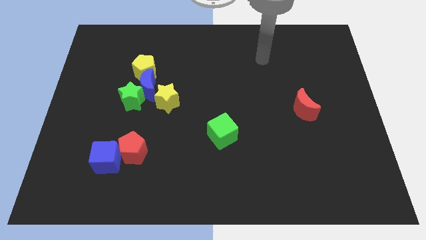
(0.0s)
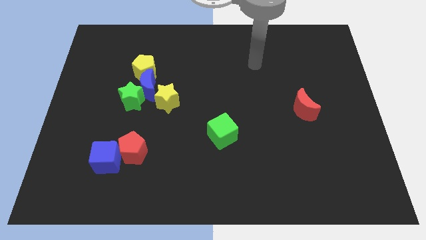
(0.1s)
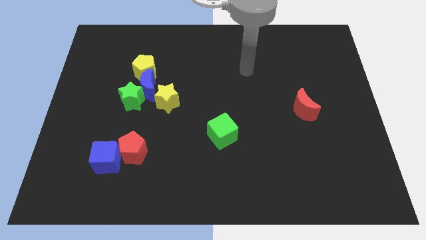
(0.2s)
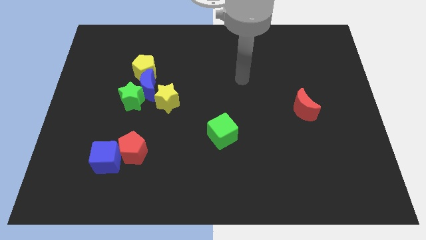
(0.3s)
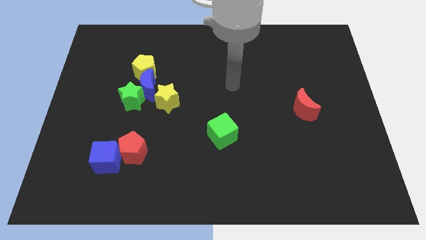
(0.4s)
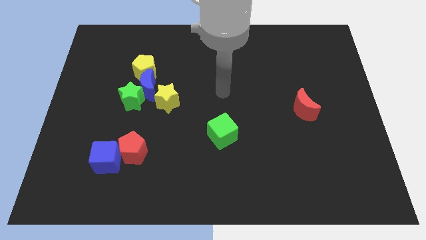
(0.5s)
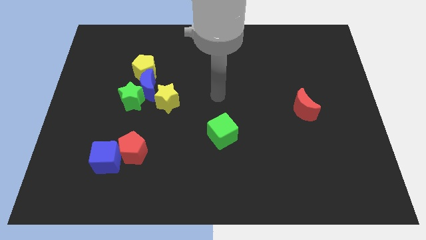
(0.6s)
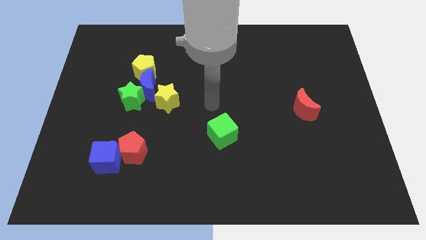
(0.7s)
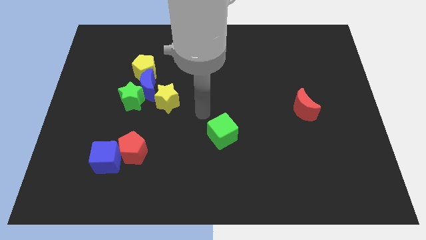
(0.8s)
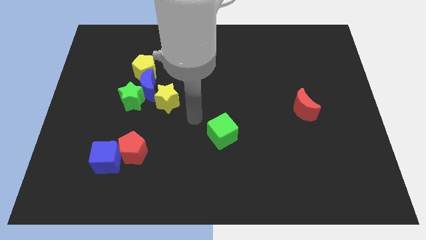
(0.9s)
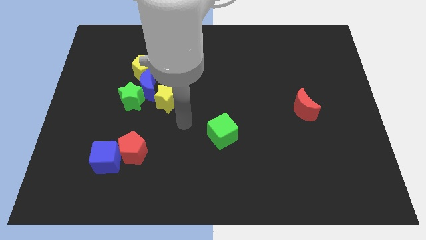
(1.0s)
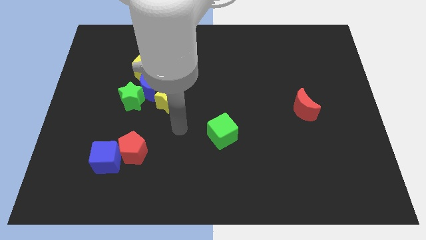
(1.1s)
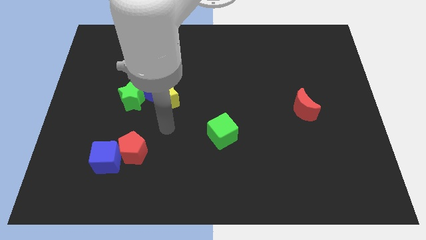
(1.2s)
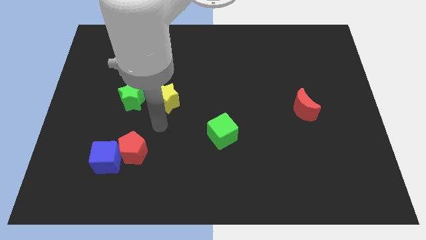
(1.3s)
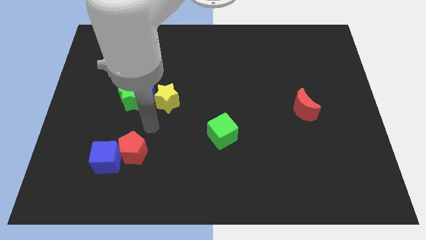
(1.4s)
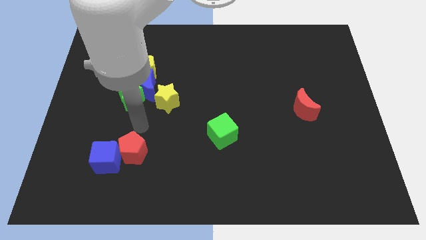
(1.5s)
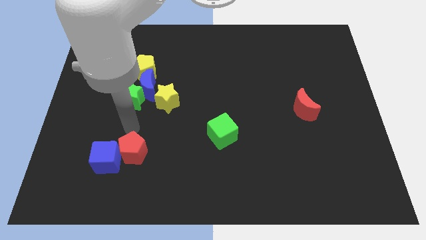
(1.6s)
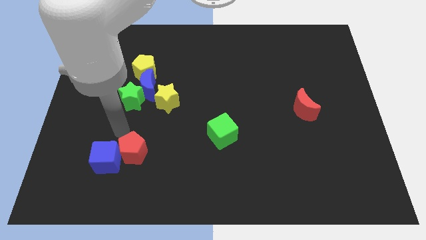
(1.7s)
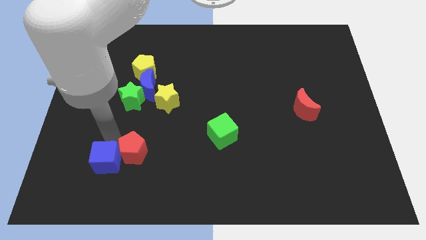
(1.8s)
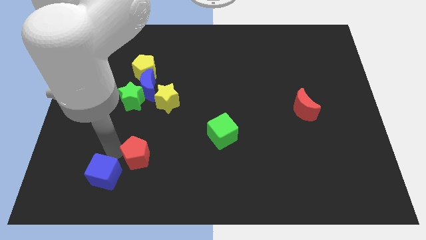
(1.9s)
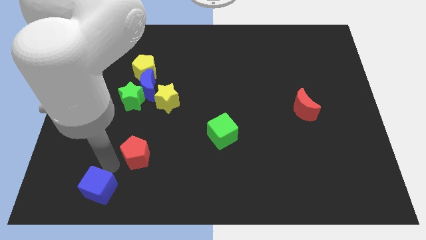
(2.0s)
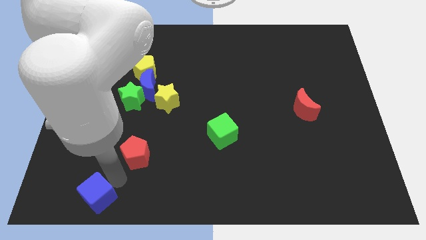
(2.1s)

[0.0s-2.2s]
pull the red pentagon apart from the blue cube

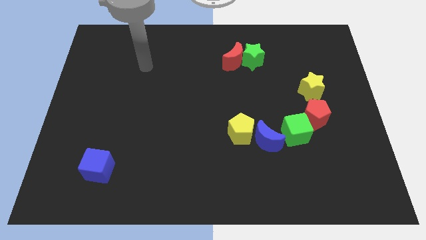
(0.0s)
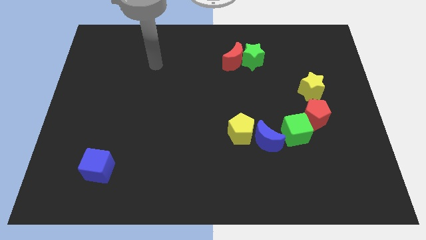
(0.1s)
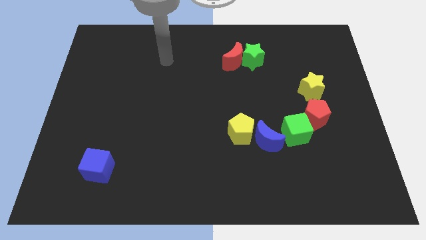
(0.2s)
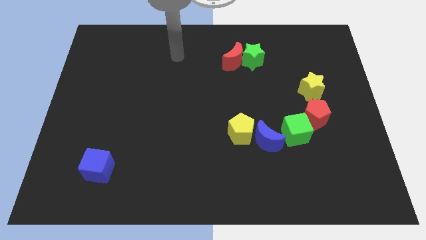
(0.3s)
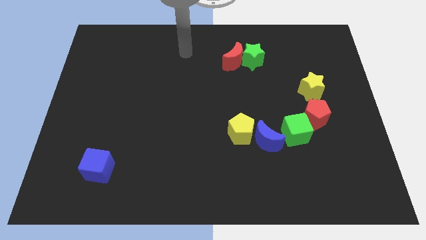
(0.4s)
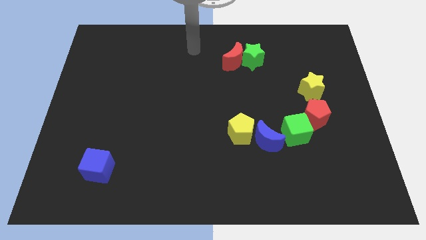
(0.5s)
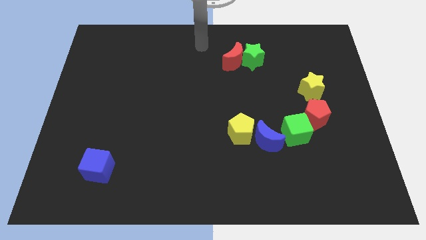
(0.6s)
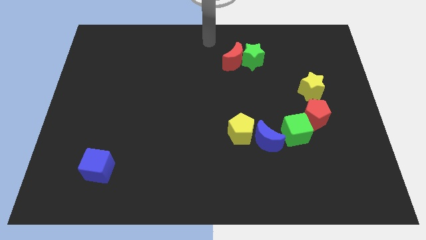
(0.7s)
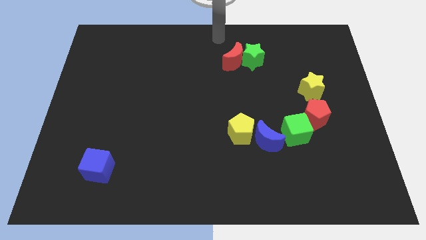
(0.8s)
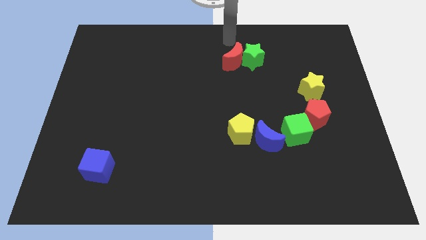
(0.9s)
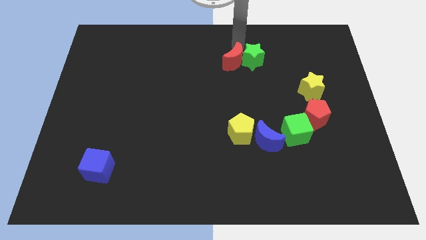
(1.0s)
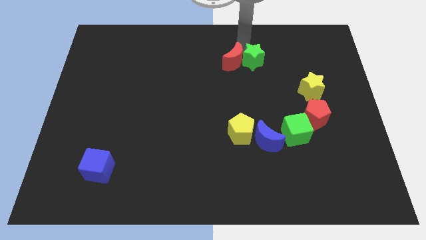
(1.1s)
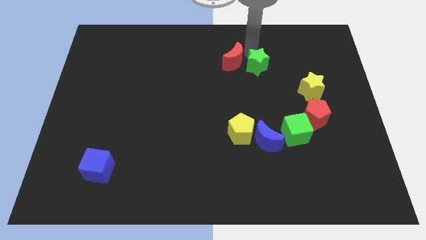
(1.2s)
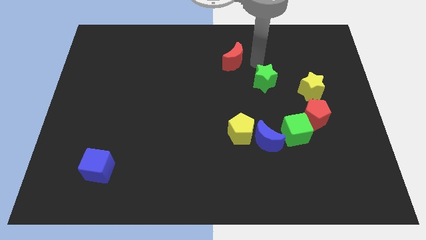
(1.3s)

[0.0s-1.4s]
move the red moon away from the green star

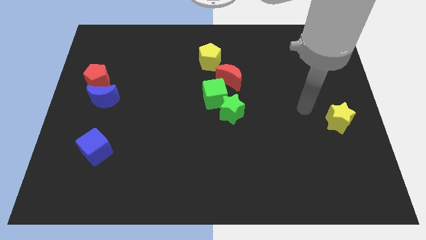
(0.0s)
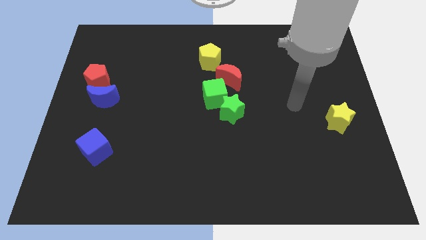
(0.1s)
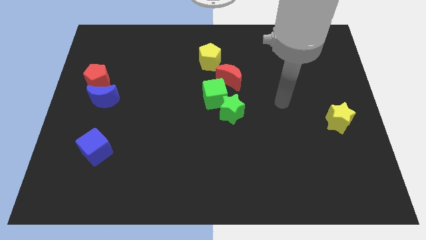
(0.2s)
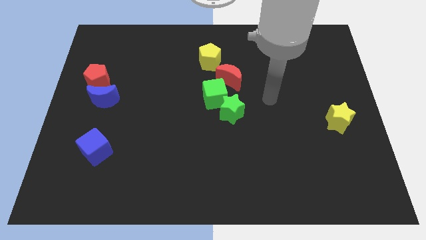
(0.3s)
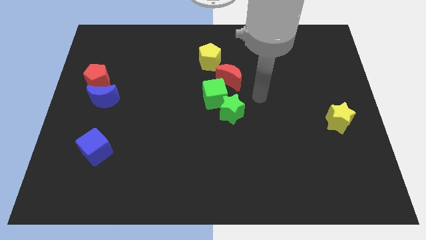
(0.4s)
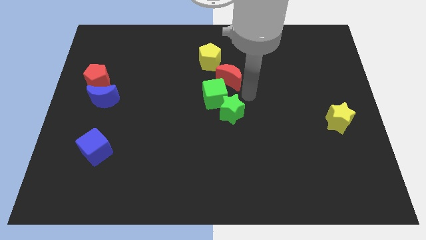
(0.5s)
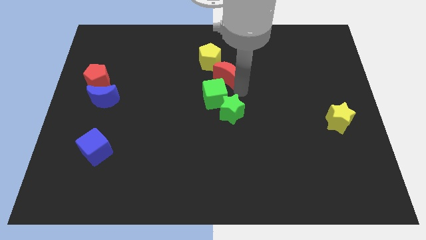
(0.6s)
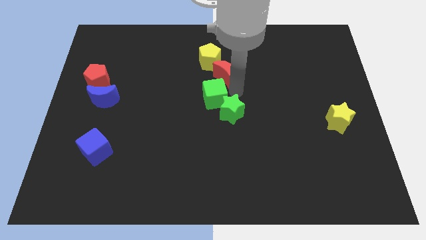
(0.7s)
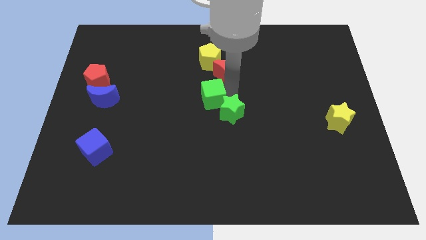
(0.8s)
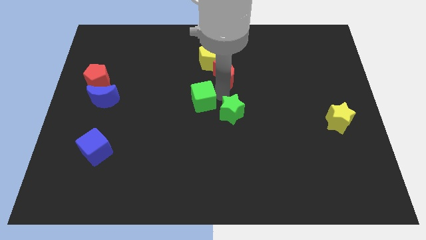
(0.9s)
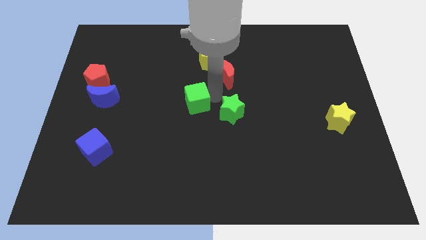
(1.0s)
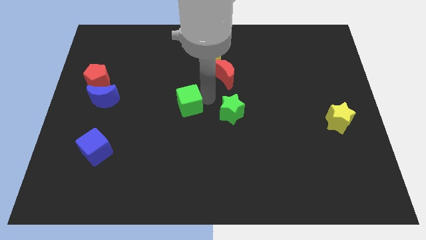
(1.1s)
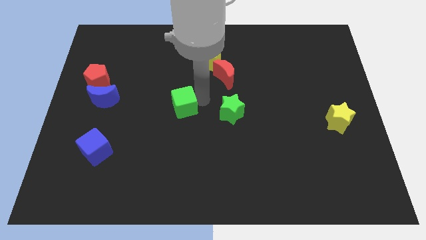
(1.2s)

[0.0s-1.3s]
pull the green cube apart from the green star and red moon

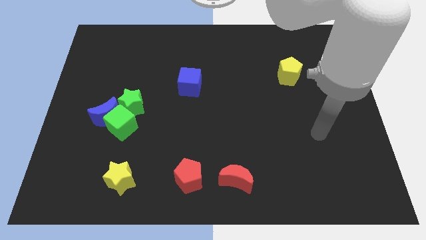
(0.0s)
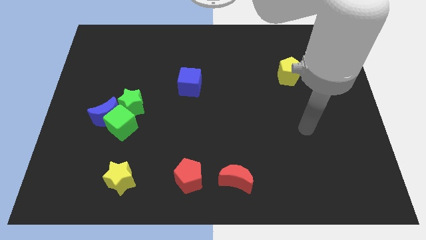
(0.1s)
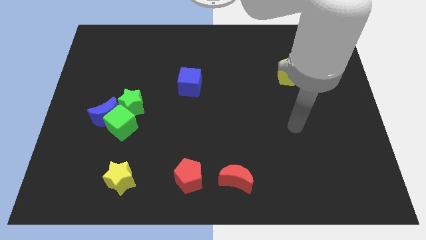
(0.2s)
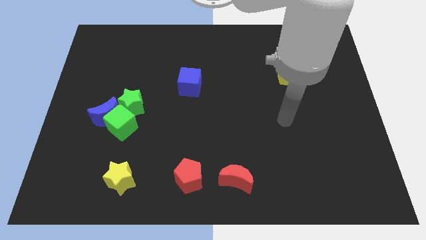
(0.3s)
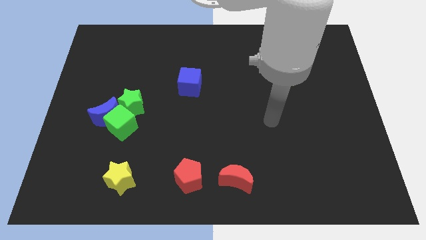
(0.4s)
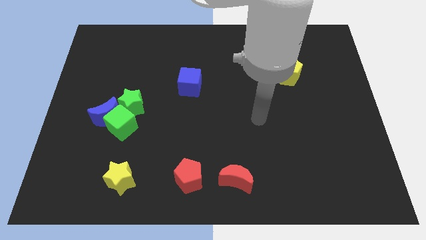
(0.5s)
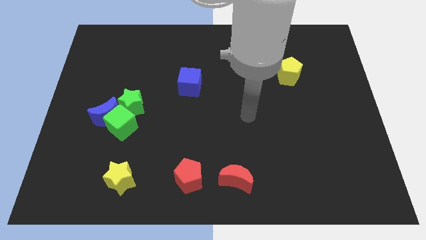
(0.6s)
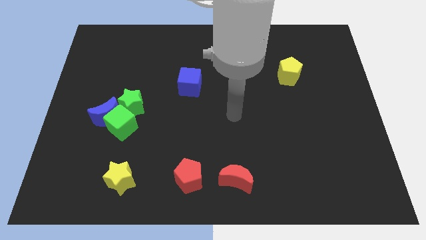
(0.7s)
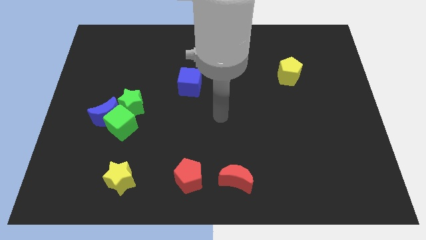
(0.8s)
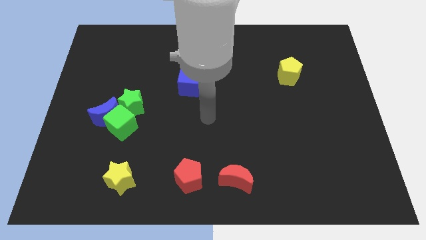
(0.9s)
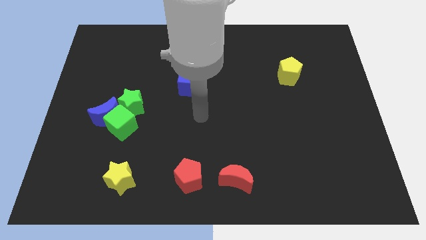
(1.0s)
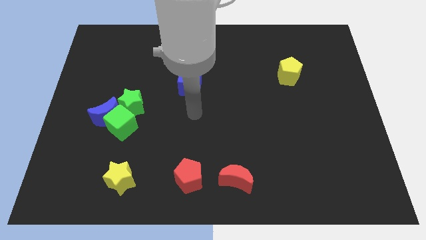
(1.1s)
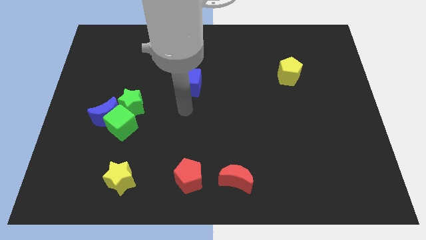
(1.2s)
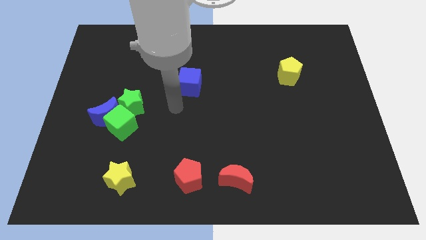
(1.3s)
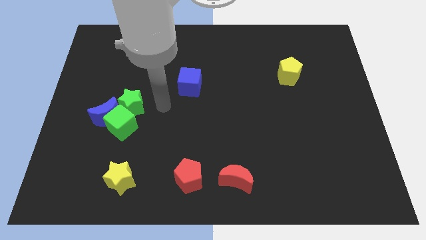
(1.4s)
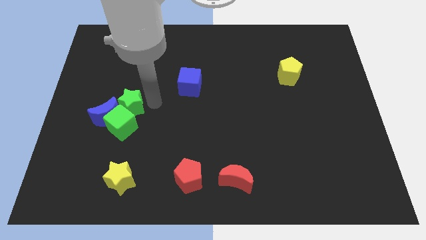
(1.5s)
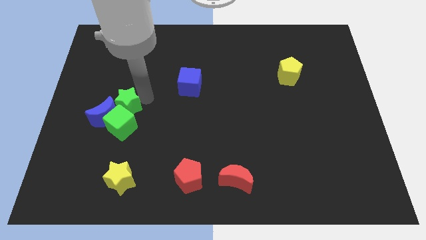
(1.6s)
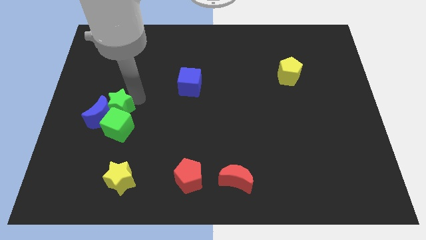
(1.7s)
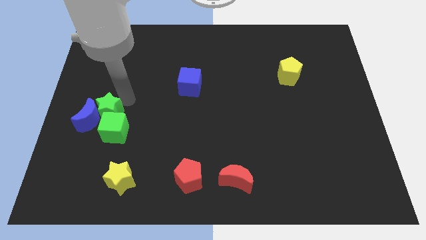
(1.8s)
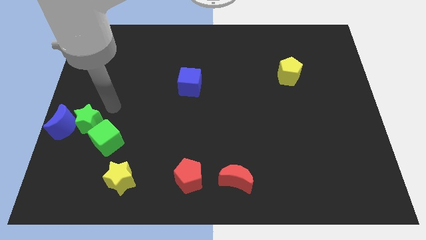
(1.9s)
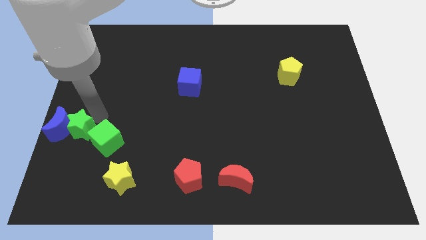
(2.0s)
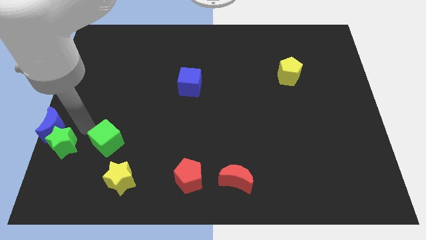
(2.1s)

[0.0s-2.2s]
move the green cube away from the blue moon and green star

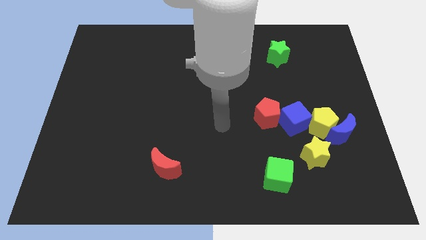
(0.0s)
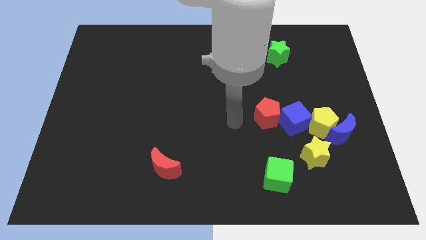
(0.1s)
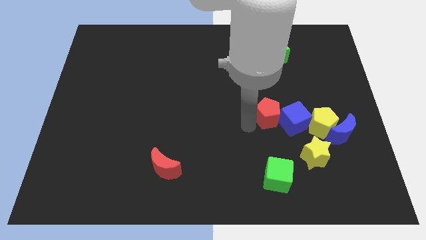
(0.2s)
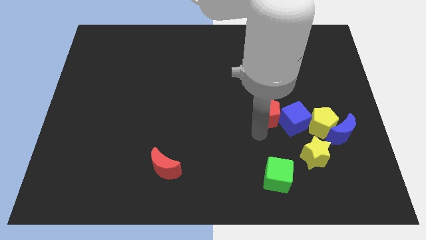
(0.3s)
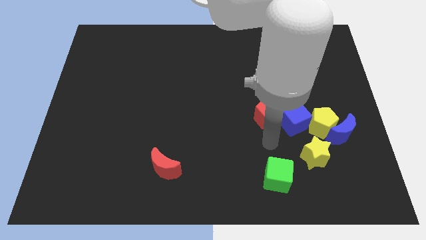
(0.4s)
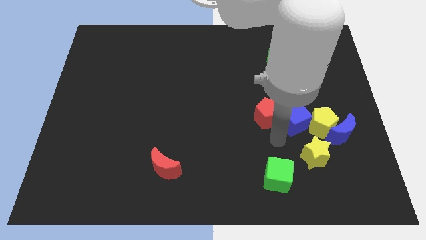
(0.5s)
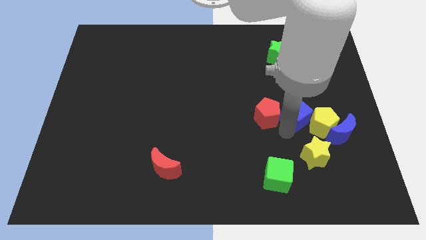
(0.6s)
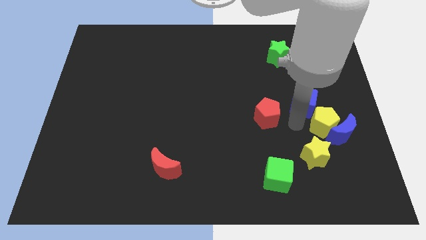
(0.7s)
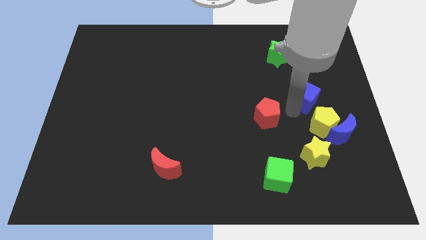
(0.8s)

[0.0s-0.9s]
separate the red pentagon from the blue cube

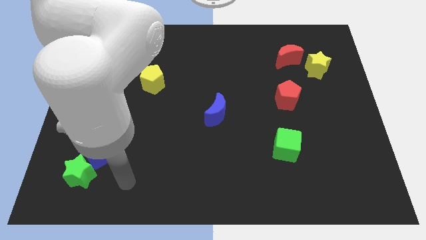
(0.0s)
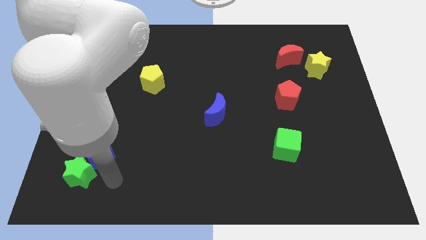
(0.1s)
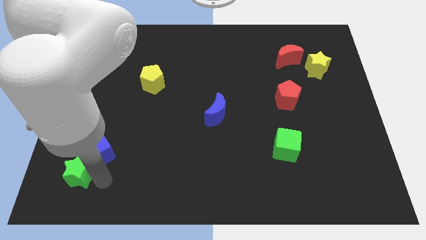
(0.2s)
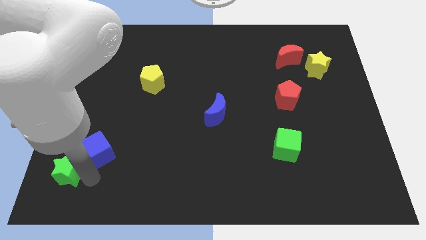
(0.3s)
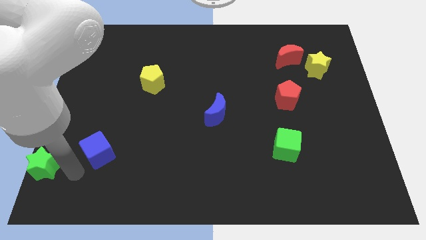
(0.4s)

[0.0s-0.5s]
separate the blue cube from the green star

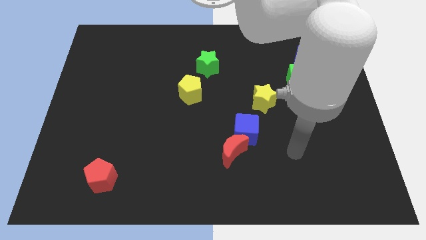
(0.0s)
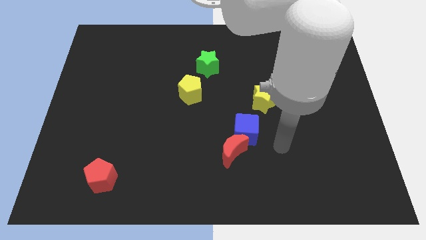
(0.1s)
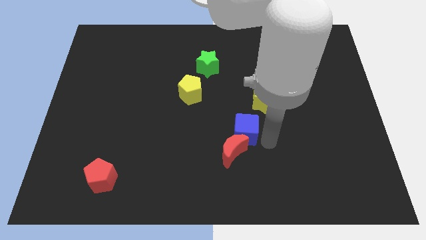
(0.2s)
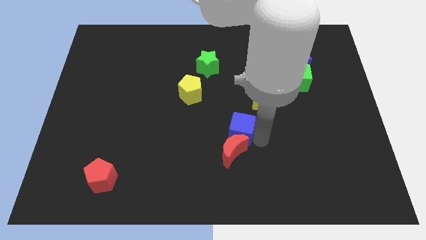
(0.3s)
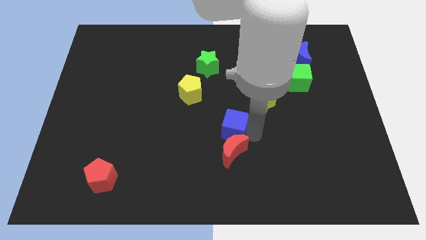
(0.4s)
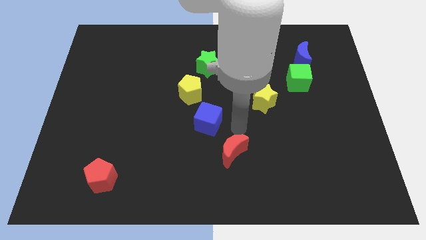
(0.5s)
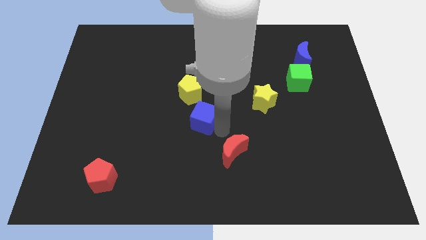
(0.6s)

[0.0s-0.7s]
separate the red moon from the blue cube
